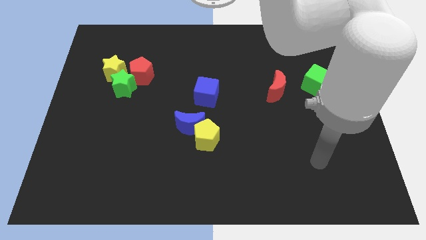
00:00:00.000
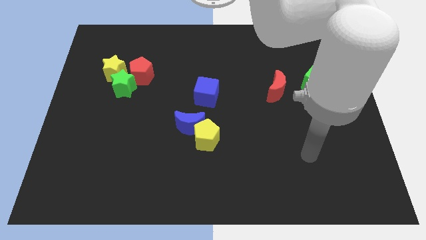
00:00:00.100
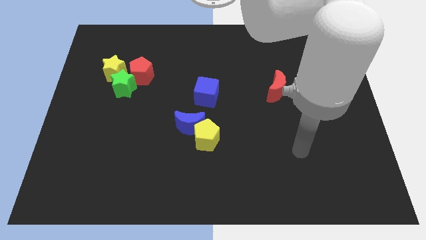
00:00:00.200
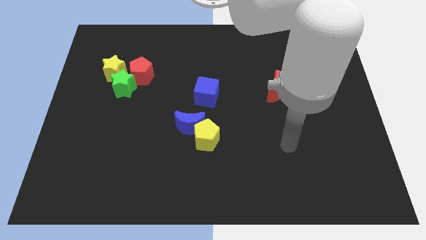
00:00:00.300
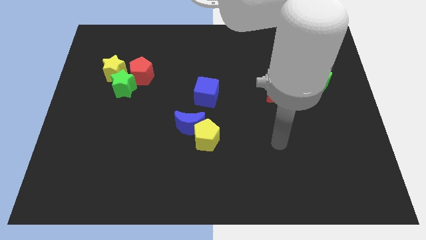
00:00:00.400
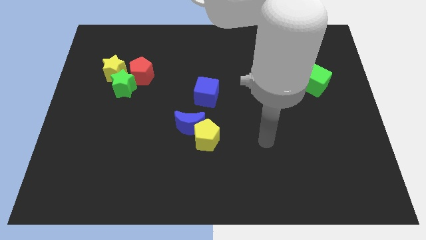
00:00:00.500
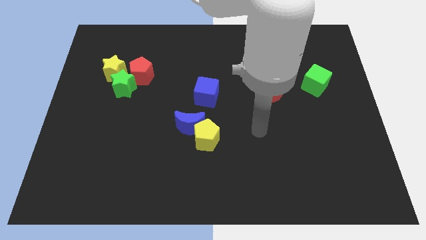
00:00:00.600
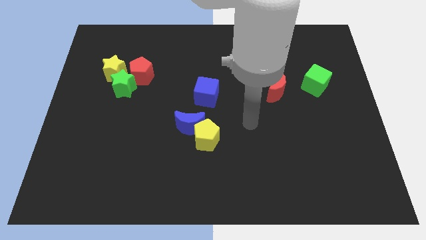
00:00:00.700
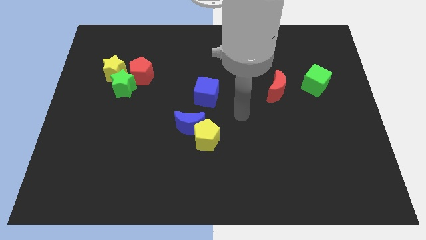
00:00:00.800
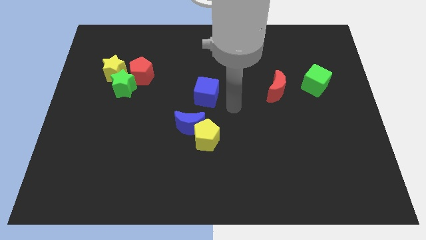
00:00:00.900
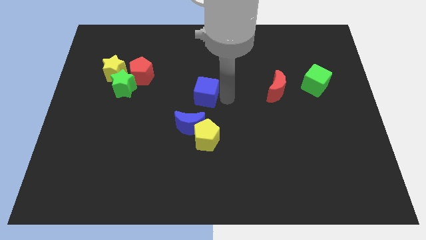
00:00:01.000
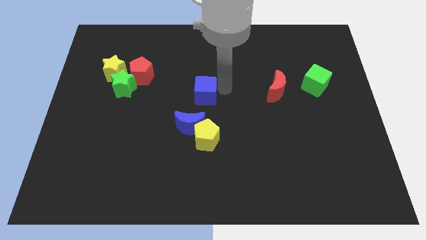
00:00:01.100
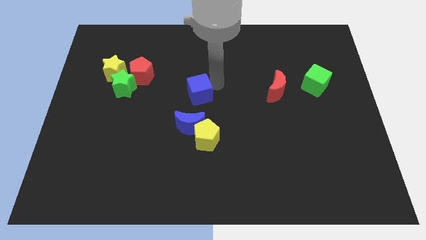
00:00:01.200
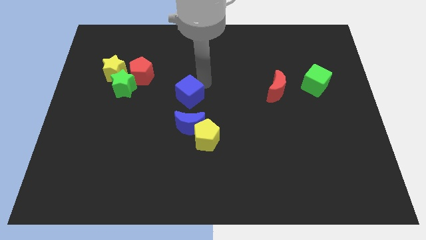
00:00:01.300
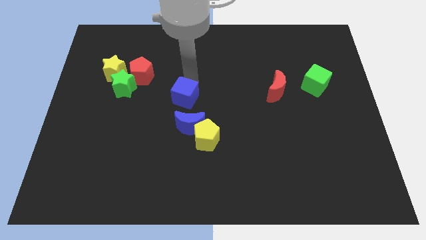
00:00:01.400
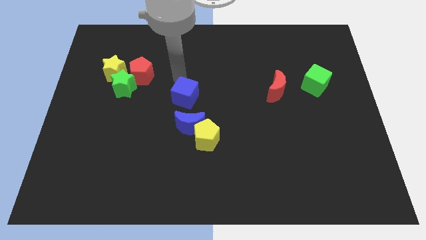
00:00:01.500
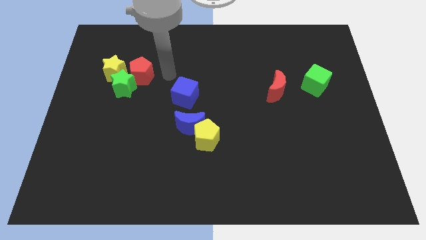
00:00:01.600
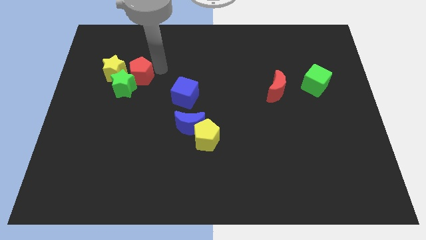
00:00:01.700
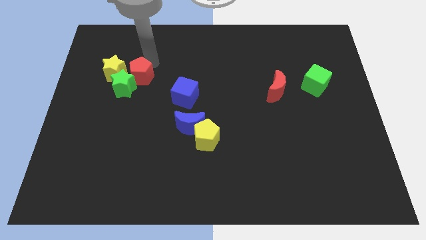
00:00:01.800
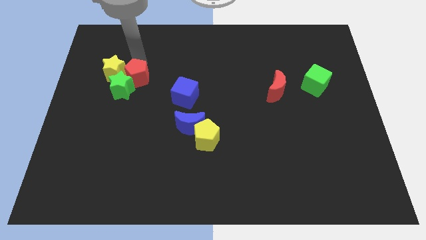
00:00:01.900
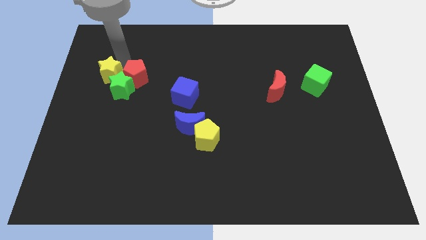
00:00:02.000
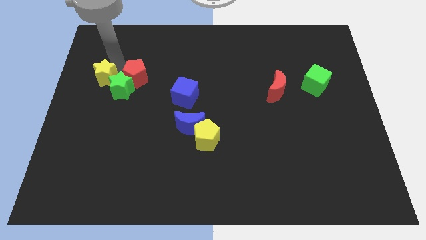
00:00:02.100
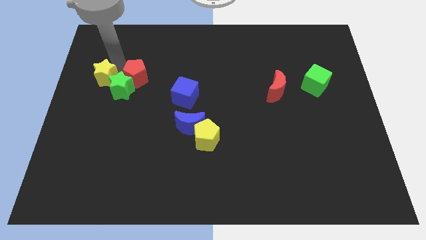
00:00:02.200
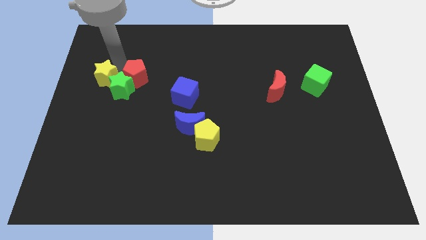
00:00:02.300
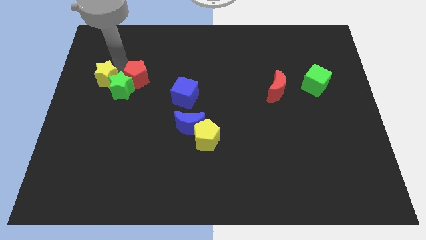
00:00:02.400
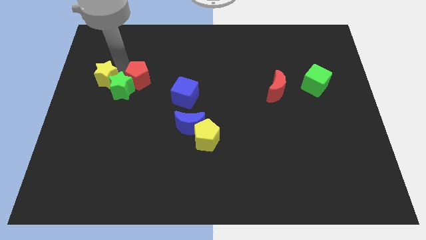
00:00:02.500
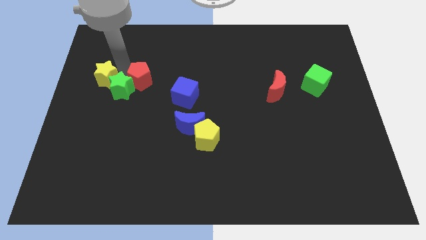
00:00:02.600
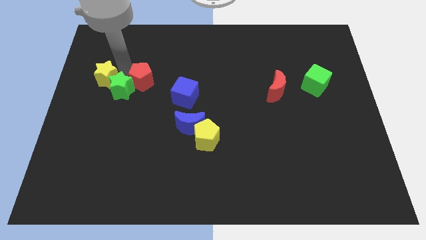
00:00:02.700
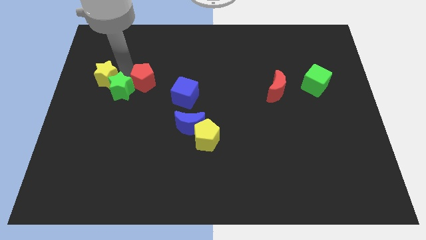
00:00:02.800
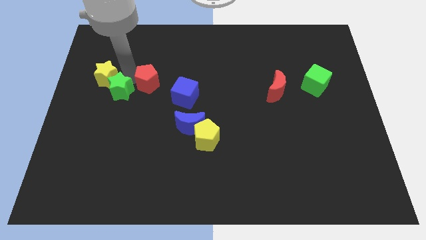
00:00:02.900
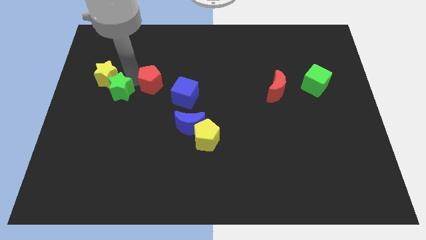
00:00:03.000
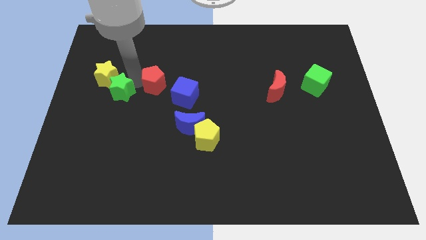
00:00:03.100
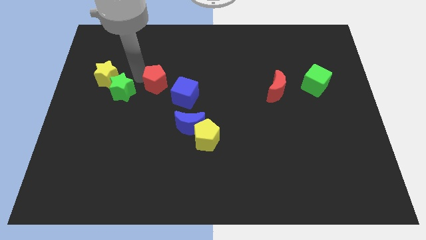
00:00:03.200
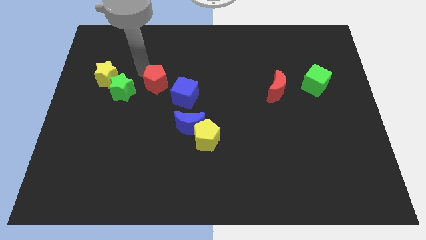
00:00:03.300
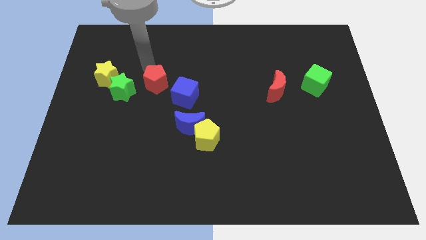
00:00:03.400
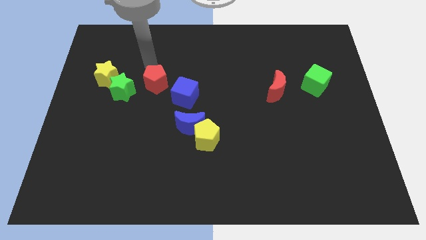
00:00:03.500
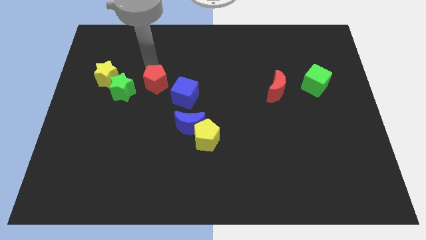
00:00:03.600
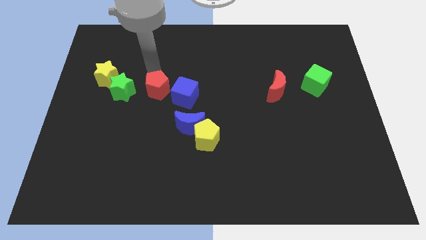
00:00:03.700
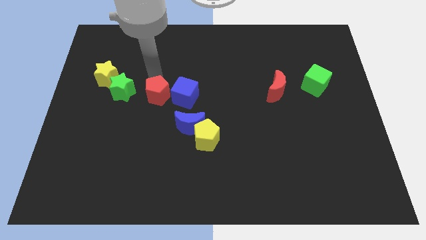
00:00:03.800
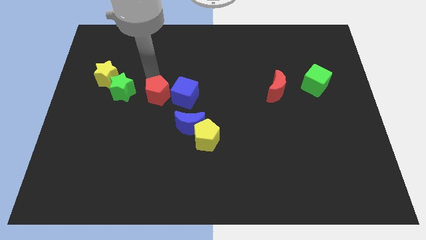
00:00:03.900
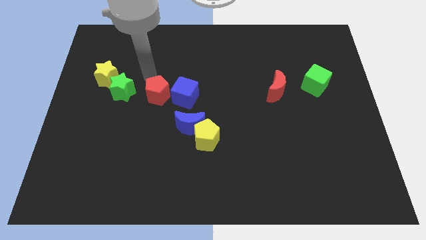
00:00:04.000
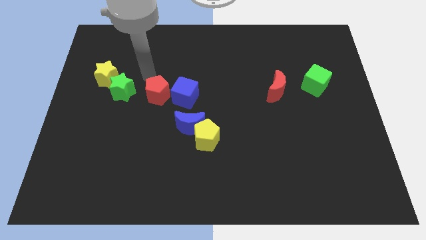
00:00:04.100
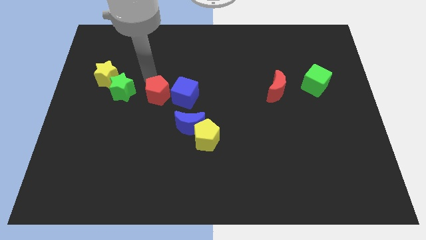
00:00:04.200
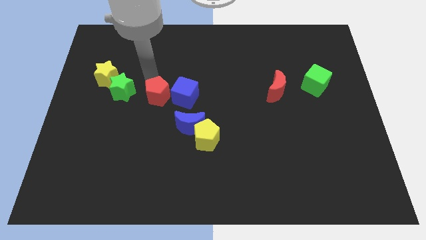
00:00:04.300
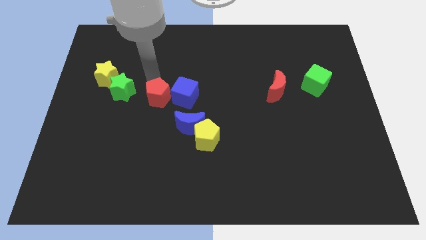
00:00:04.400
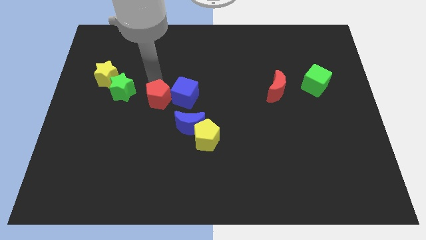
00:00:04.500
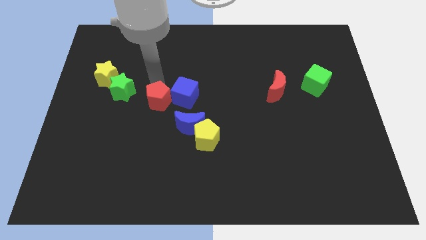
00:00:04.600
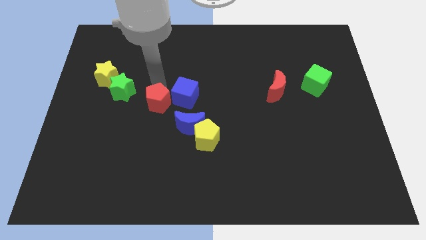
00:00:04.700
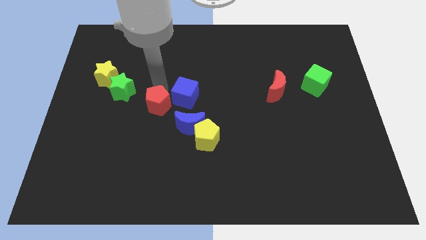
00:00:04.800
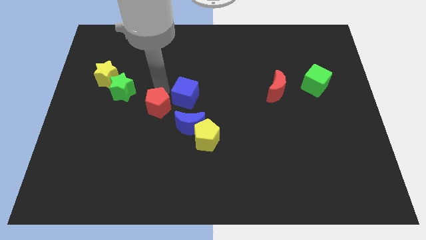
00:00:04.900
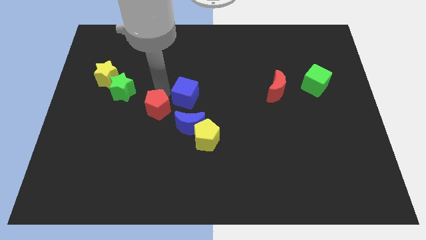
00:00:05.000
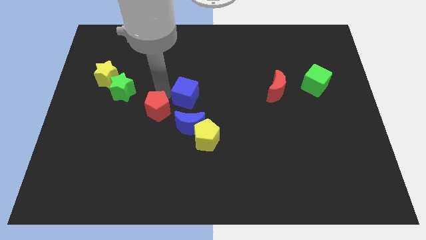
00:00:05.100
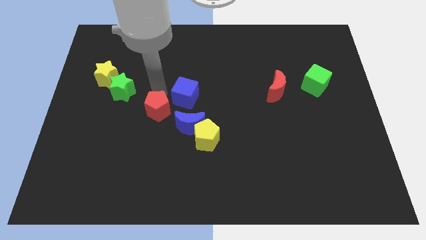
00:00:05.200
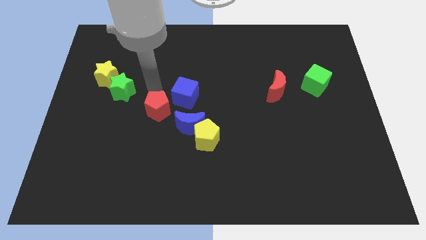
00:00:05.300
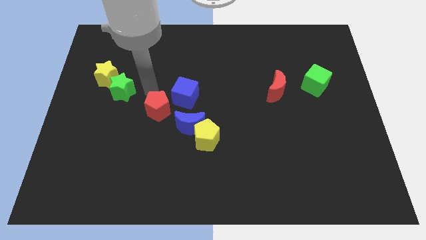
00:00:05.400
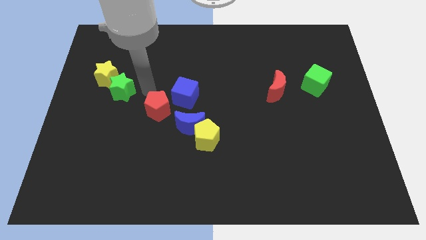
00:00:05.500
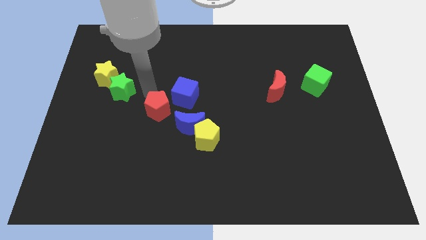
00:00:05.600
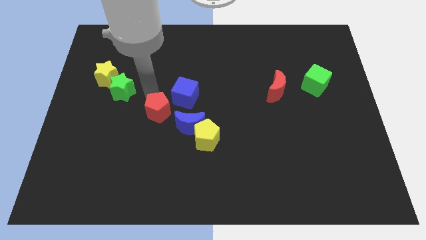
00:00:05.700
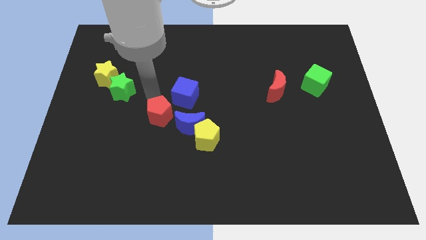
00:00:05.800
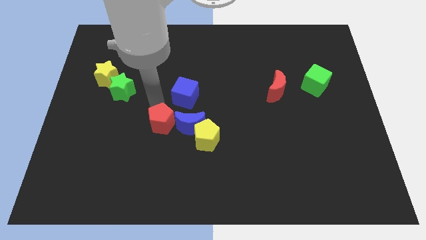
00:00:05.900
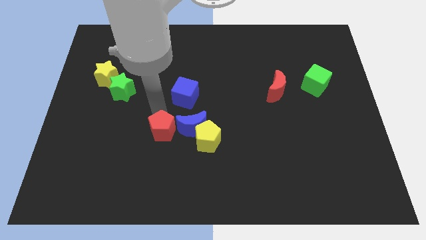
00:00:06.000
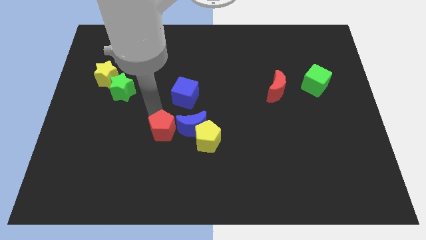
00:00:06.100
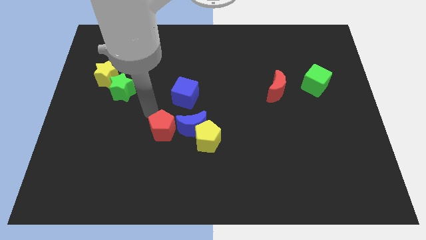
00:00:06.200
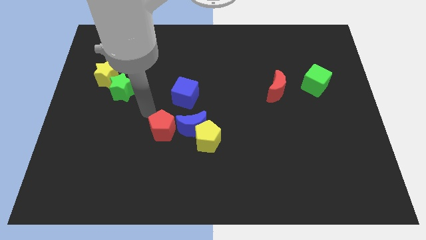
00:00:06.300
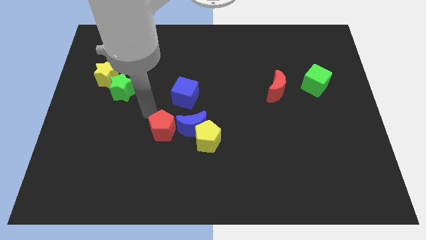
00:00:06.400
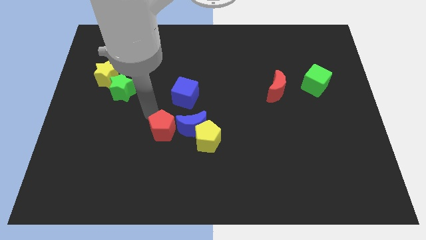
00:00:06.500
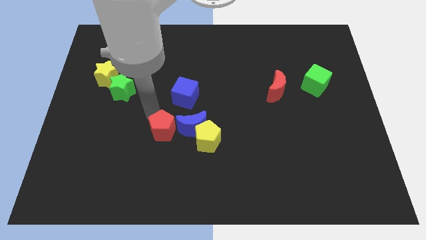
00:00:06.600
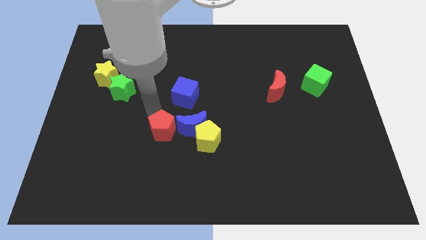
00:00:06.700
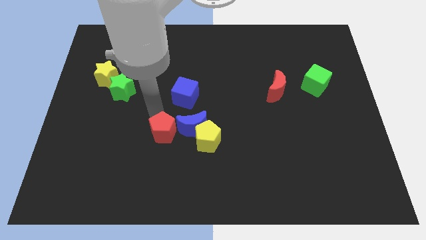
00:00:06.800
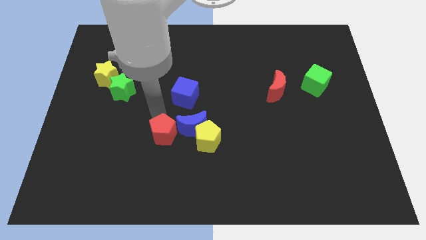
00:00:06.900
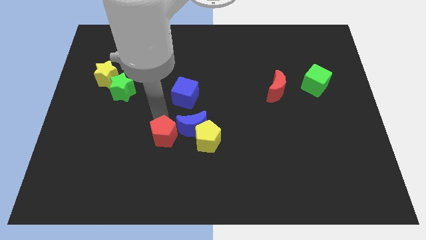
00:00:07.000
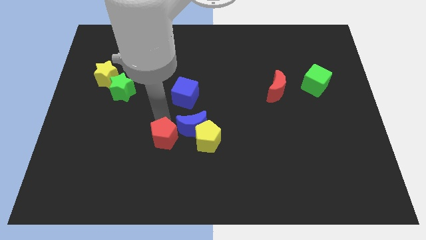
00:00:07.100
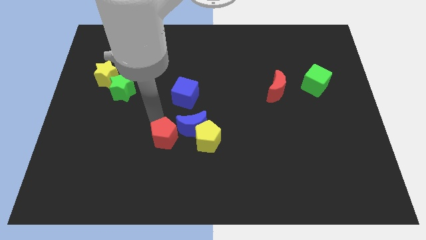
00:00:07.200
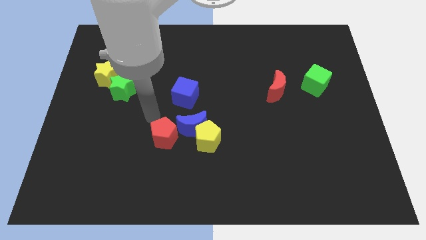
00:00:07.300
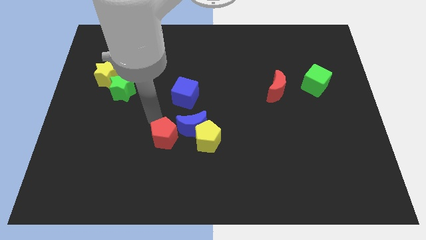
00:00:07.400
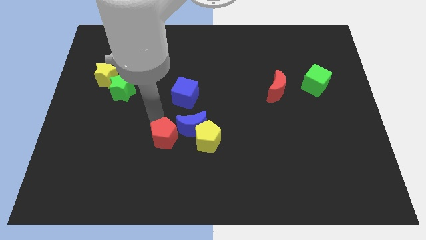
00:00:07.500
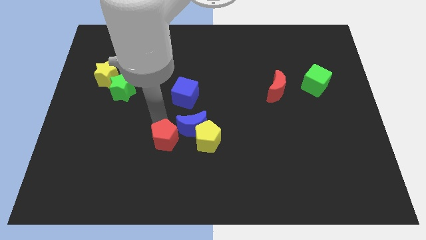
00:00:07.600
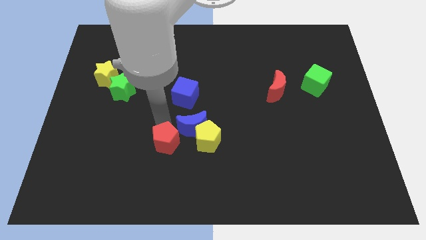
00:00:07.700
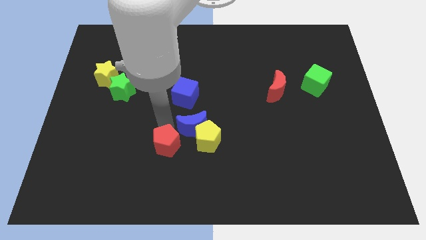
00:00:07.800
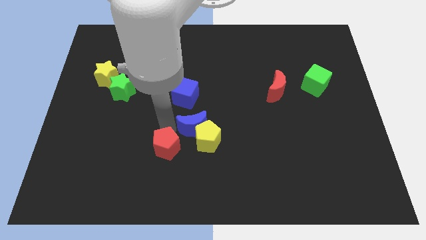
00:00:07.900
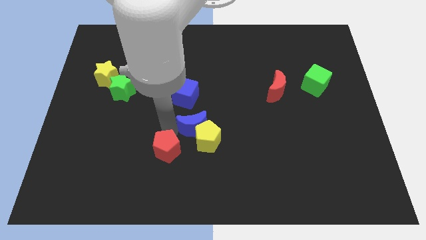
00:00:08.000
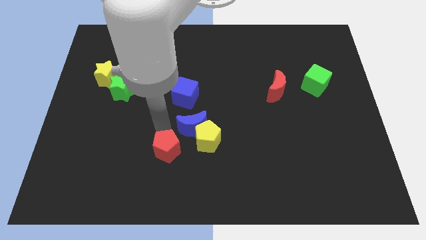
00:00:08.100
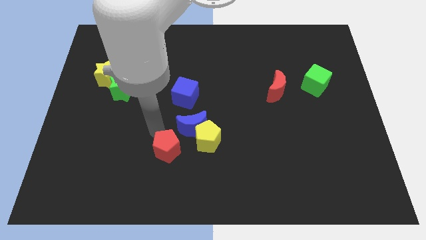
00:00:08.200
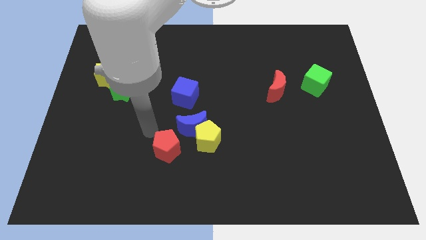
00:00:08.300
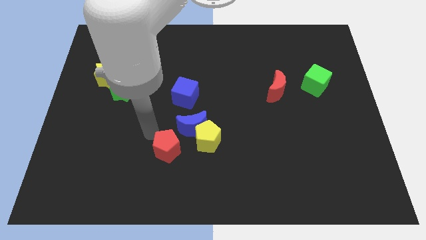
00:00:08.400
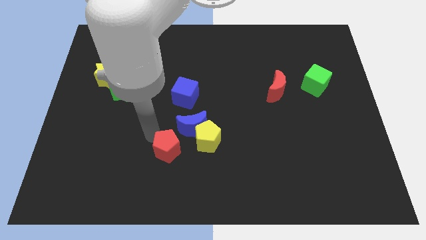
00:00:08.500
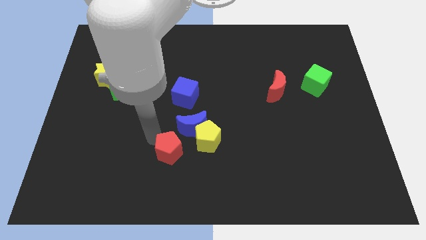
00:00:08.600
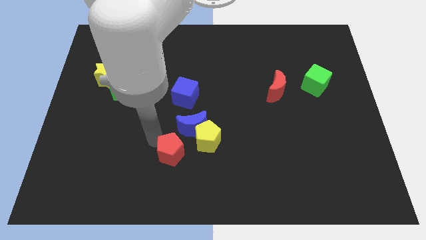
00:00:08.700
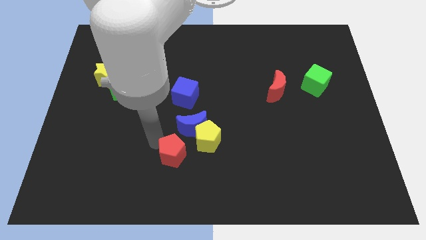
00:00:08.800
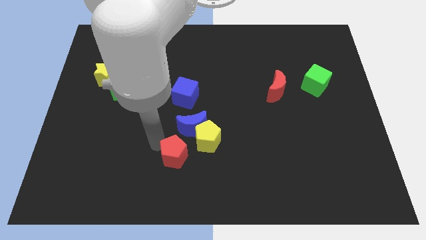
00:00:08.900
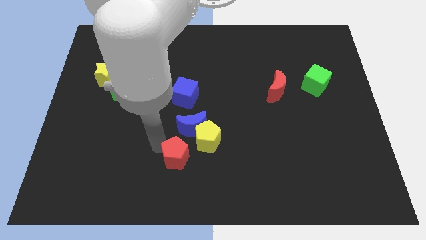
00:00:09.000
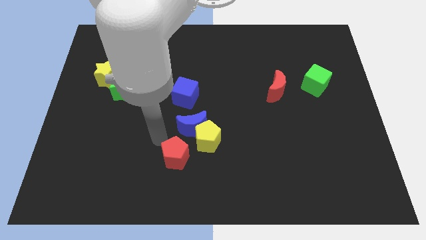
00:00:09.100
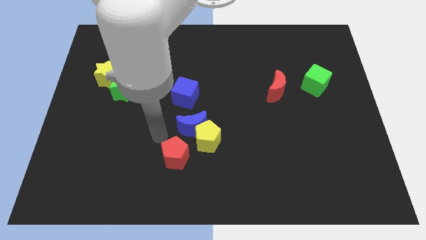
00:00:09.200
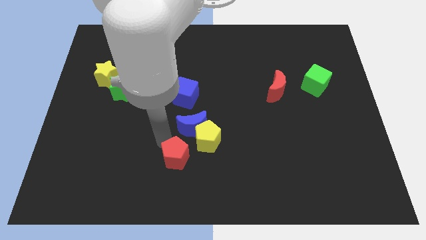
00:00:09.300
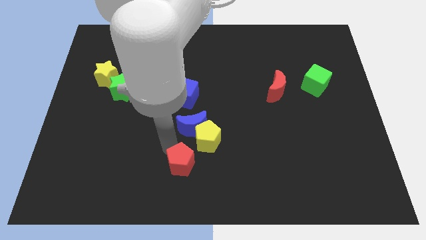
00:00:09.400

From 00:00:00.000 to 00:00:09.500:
move the red pentagon to the bottom
